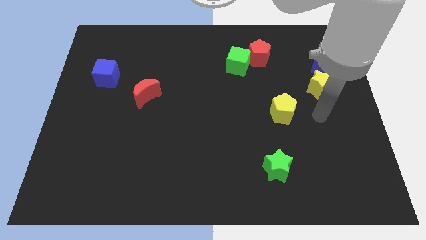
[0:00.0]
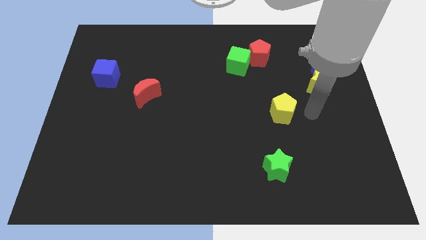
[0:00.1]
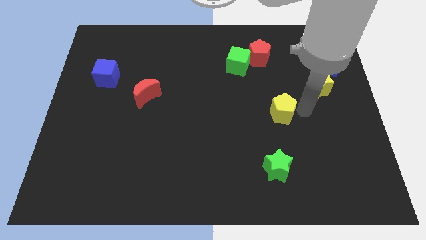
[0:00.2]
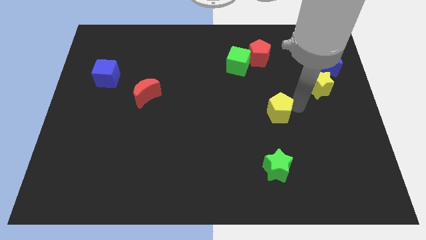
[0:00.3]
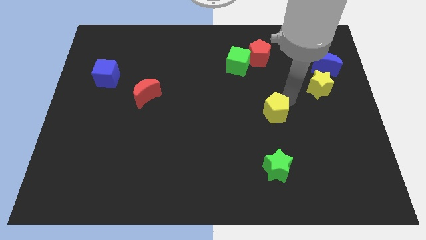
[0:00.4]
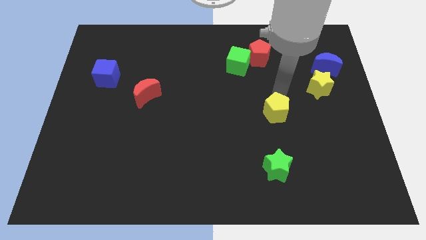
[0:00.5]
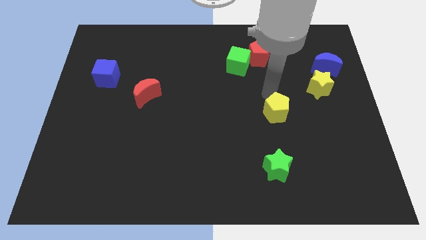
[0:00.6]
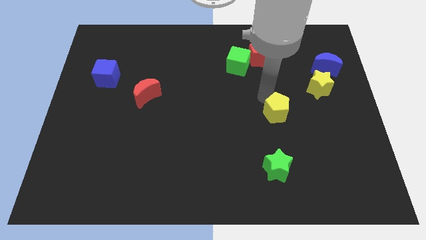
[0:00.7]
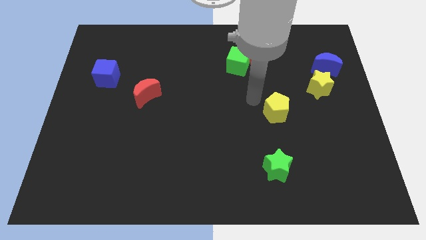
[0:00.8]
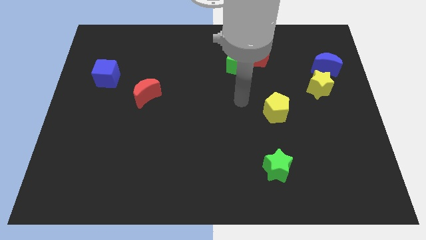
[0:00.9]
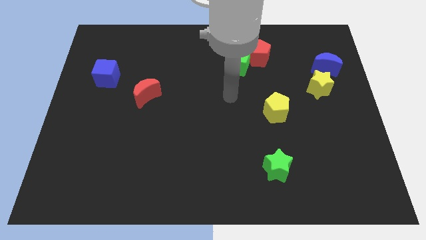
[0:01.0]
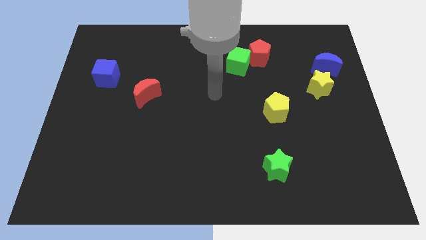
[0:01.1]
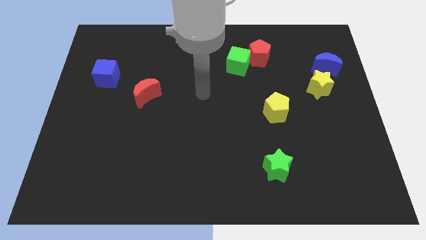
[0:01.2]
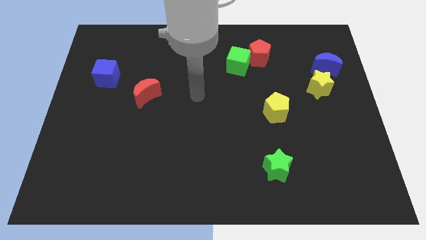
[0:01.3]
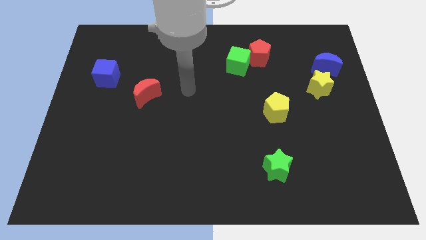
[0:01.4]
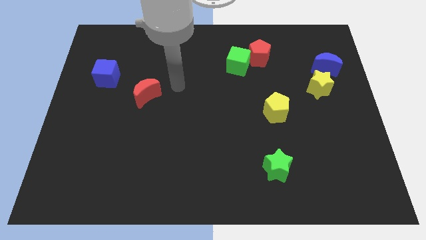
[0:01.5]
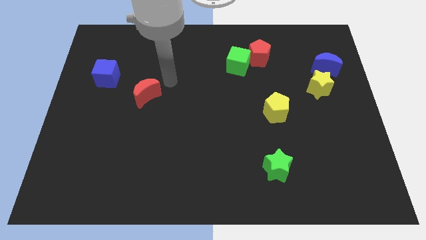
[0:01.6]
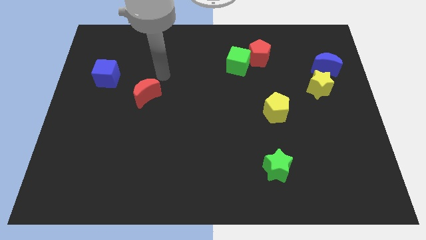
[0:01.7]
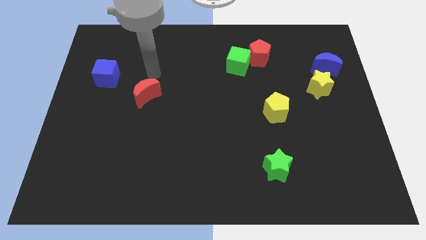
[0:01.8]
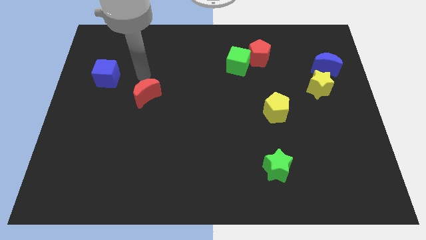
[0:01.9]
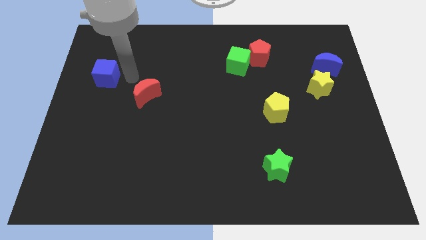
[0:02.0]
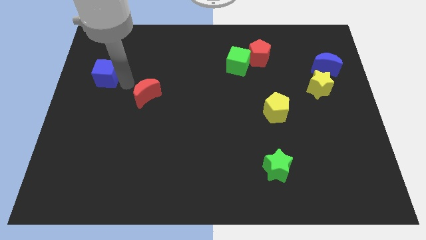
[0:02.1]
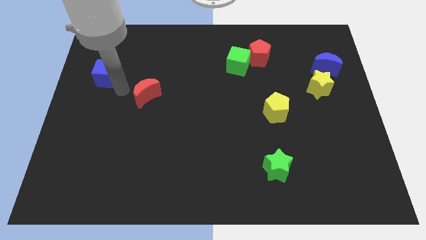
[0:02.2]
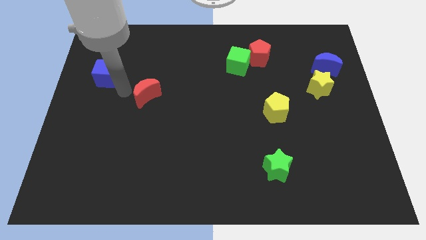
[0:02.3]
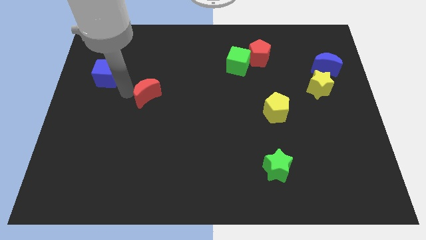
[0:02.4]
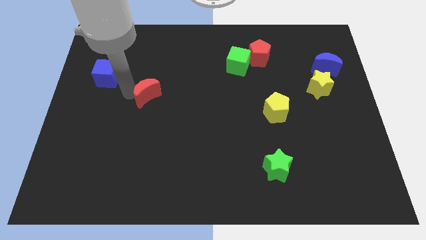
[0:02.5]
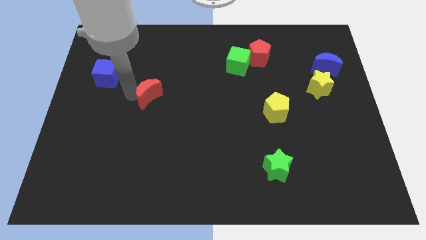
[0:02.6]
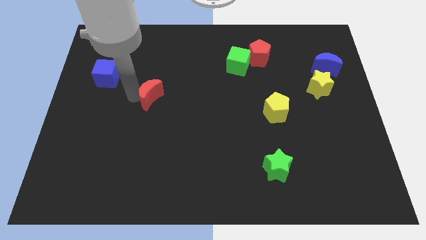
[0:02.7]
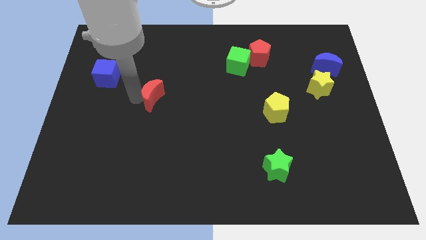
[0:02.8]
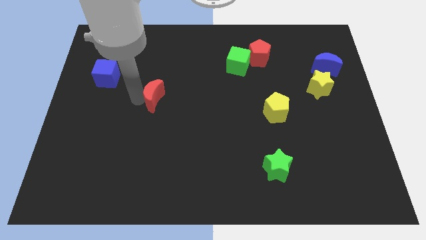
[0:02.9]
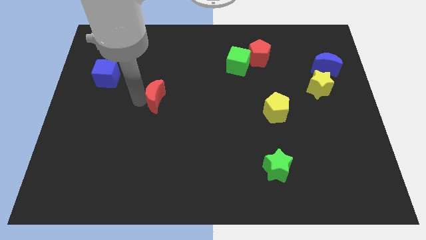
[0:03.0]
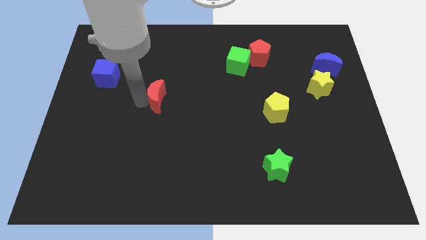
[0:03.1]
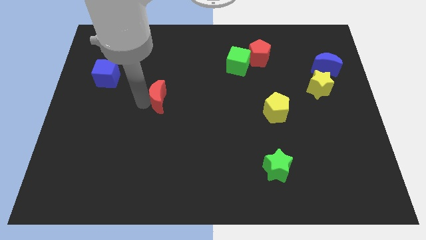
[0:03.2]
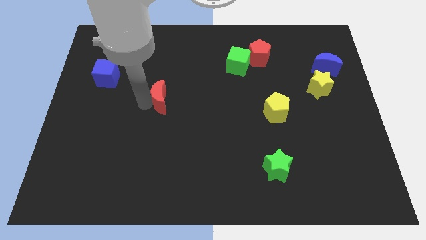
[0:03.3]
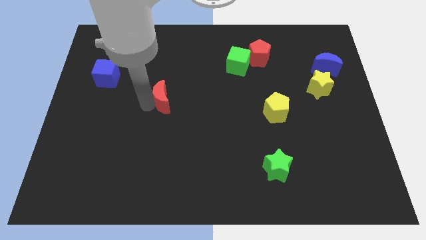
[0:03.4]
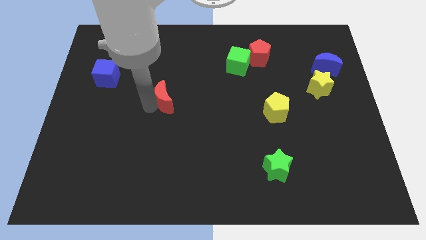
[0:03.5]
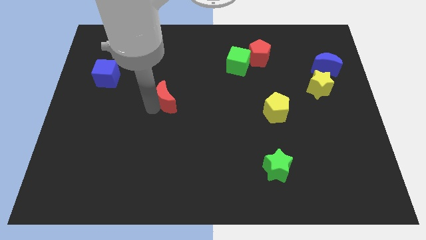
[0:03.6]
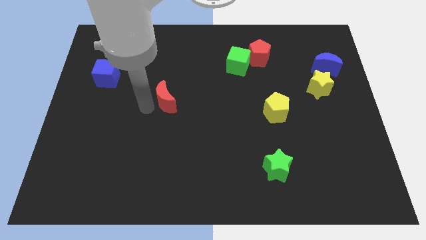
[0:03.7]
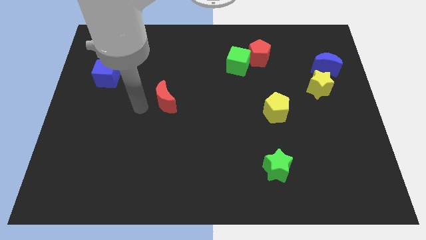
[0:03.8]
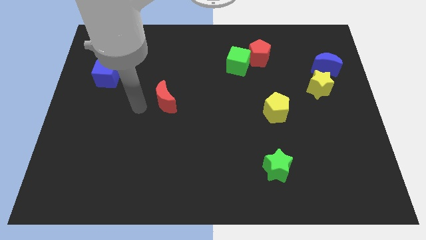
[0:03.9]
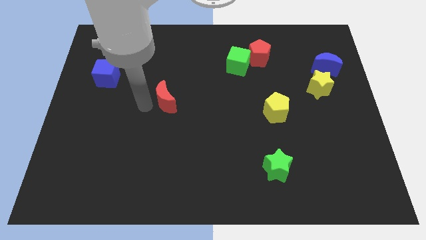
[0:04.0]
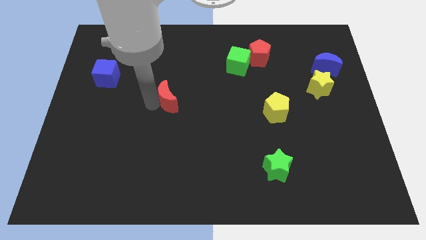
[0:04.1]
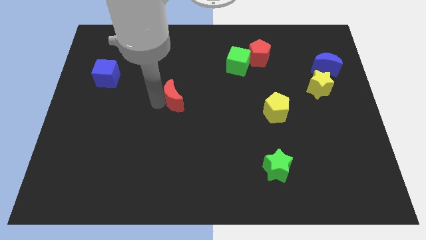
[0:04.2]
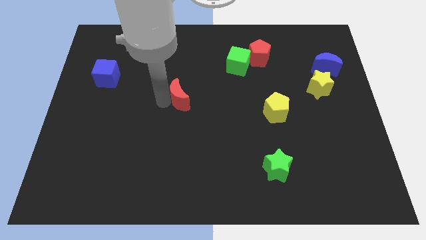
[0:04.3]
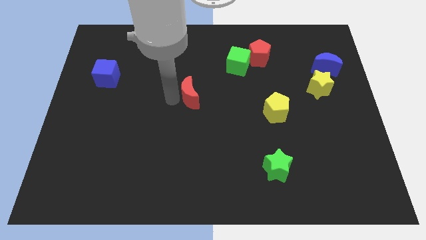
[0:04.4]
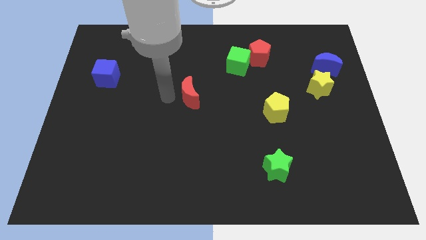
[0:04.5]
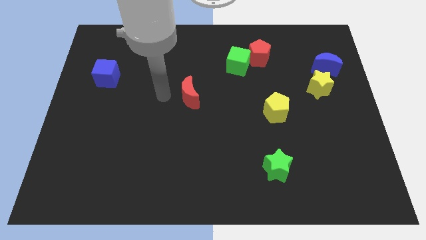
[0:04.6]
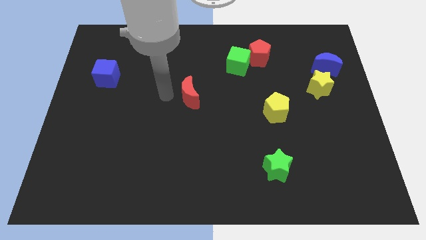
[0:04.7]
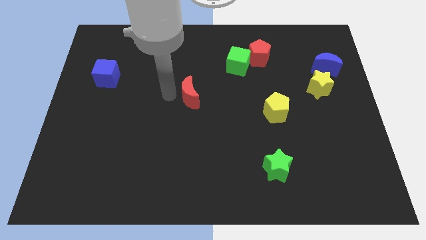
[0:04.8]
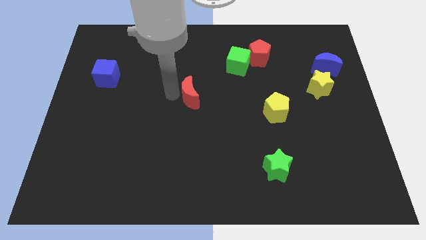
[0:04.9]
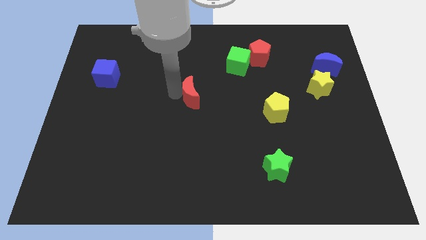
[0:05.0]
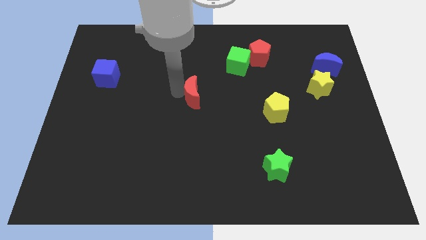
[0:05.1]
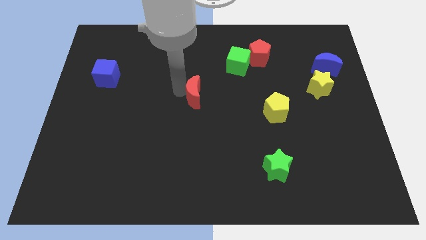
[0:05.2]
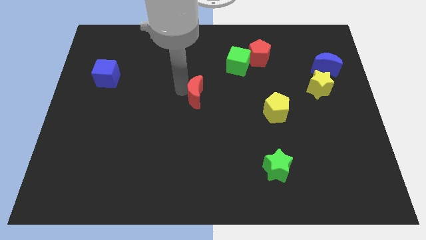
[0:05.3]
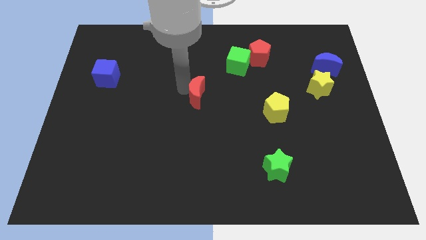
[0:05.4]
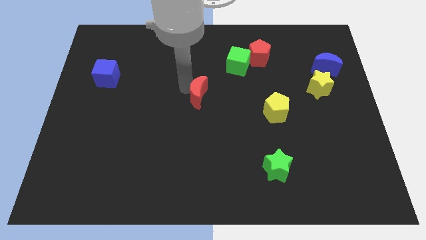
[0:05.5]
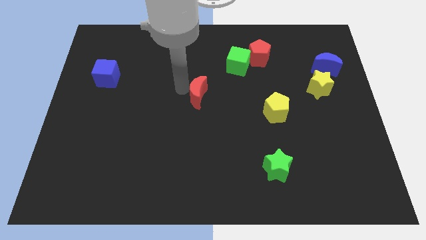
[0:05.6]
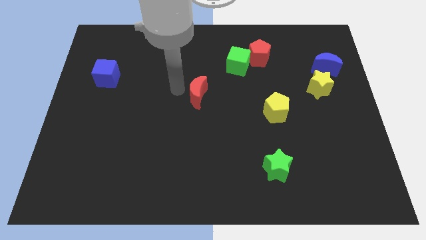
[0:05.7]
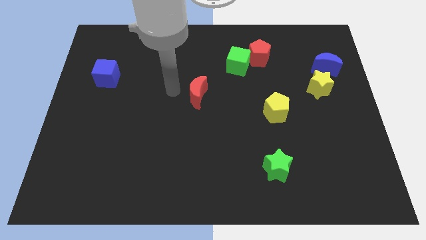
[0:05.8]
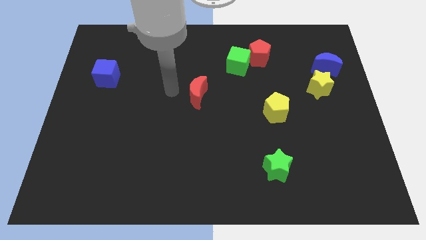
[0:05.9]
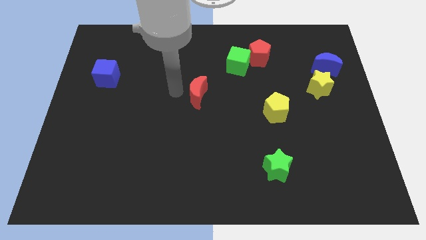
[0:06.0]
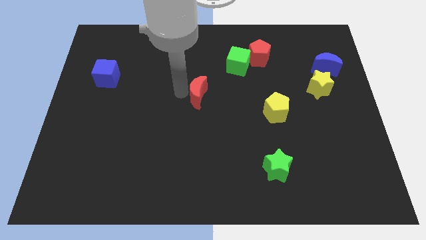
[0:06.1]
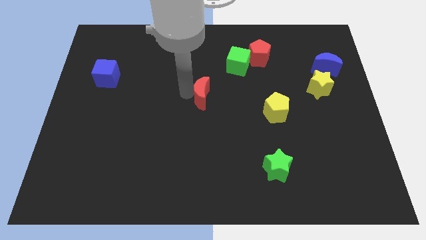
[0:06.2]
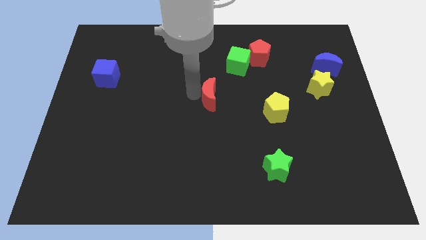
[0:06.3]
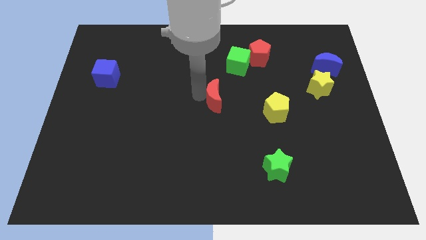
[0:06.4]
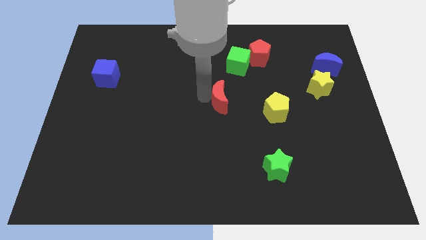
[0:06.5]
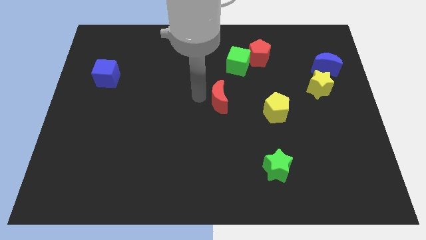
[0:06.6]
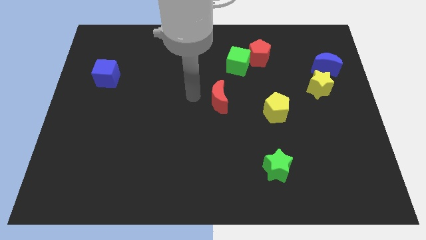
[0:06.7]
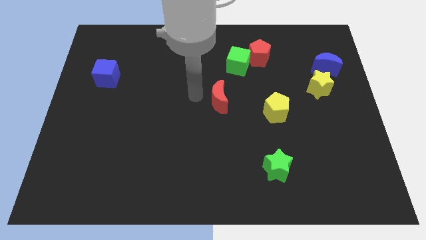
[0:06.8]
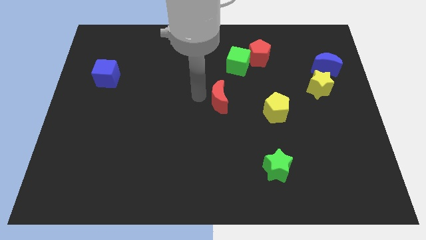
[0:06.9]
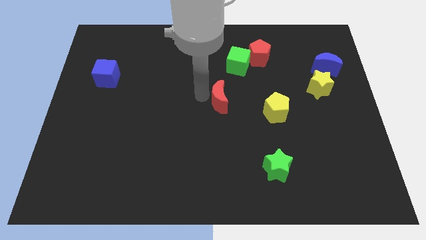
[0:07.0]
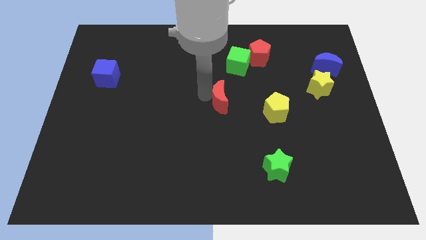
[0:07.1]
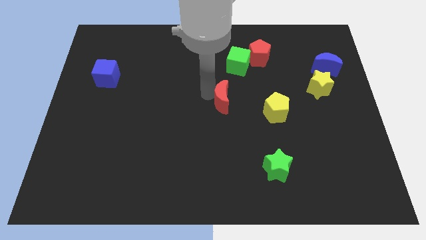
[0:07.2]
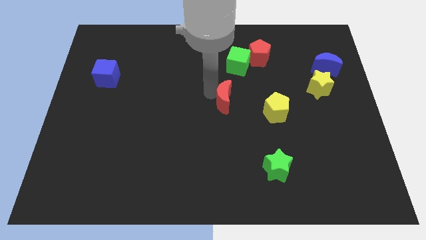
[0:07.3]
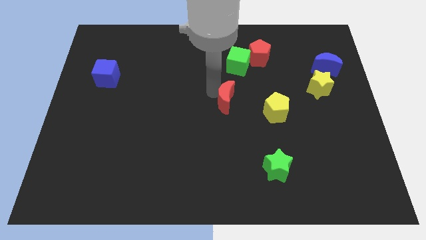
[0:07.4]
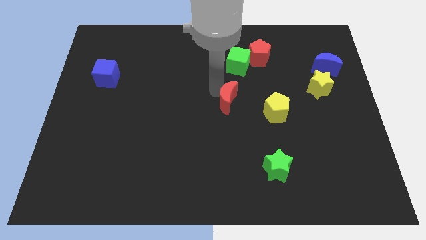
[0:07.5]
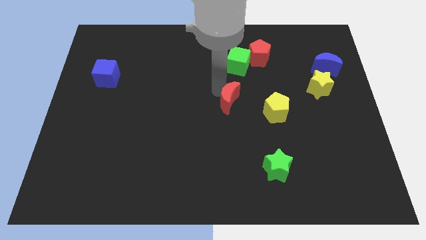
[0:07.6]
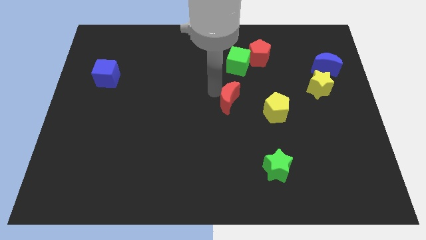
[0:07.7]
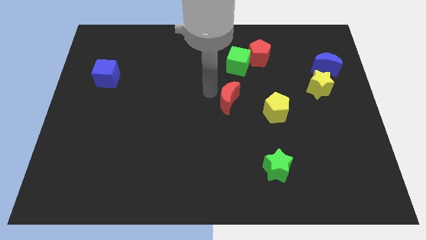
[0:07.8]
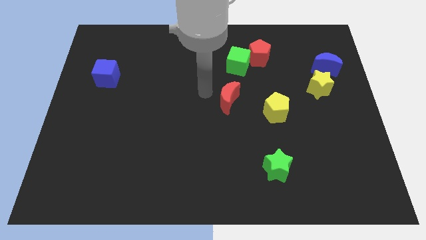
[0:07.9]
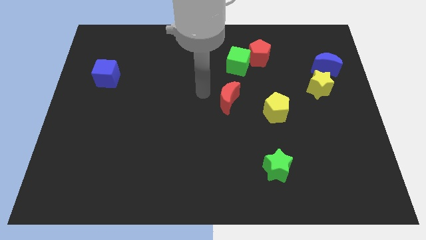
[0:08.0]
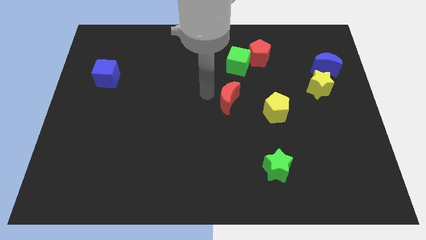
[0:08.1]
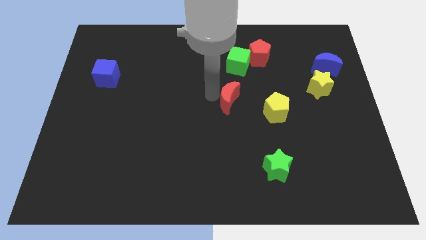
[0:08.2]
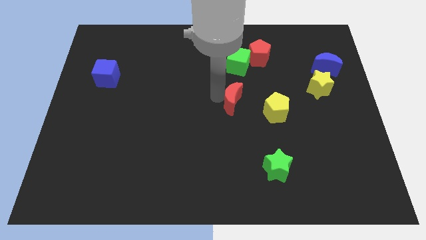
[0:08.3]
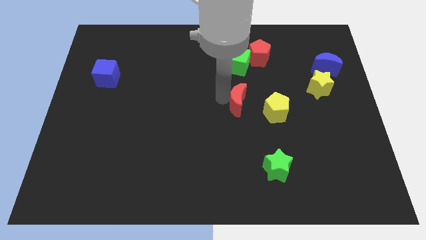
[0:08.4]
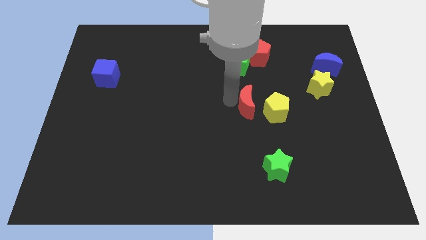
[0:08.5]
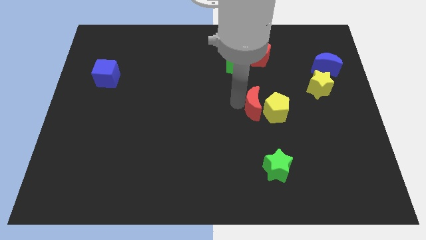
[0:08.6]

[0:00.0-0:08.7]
slide the red moon towards the yellow pentagon
